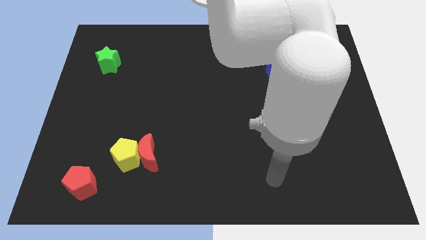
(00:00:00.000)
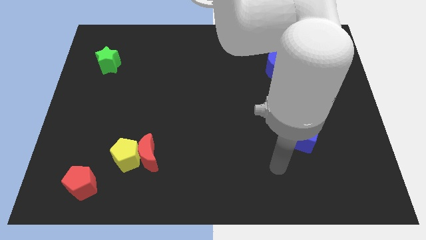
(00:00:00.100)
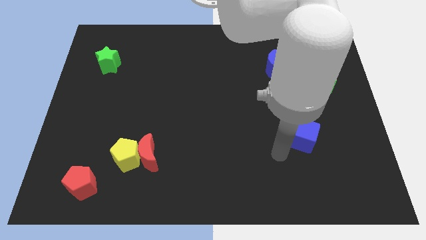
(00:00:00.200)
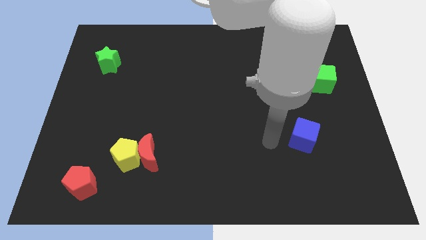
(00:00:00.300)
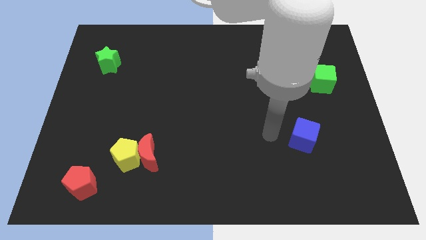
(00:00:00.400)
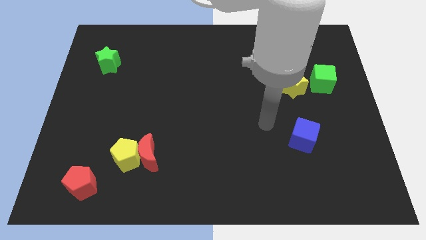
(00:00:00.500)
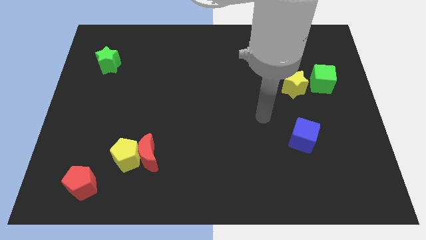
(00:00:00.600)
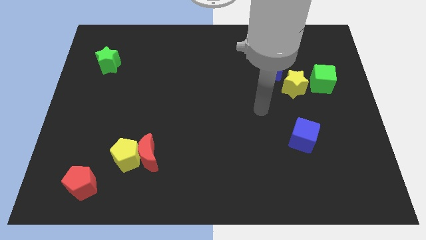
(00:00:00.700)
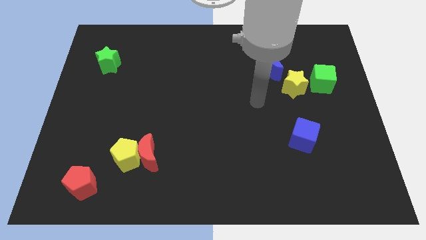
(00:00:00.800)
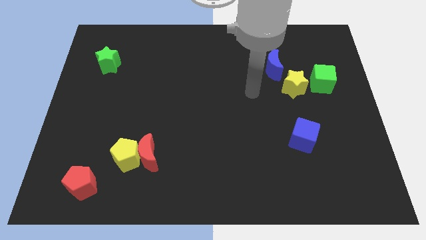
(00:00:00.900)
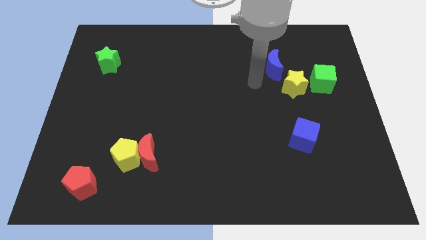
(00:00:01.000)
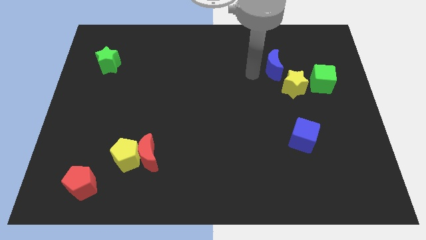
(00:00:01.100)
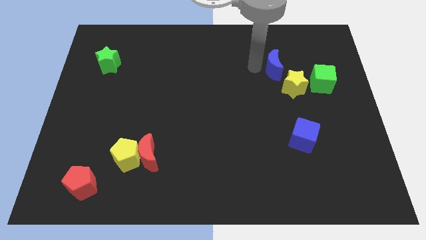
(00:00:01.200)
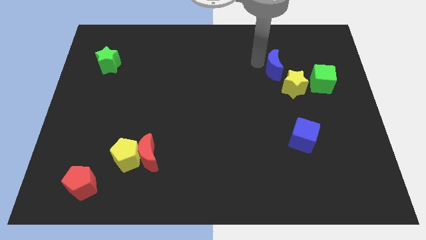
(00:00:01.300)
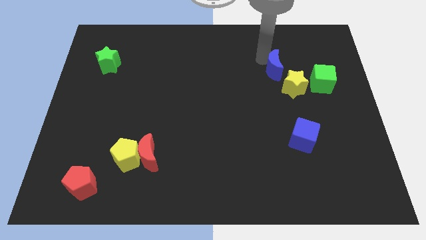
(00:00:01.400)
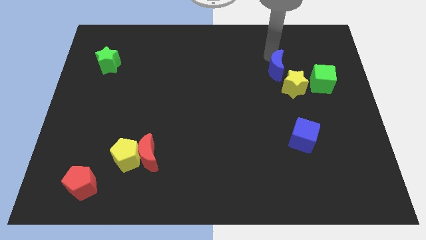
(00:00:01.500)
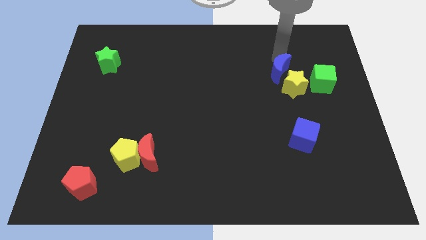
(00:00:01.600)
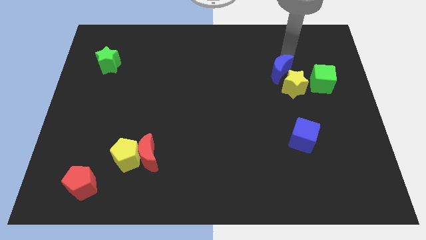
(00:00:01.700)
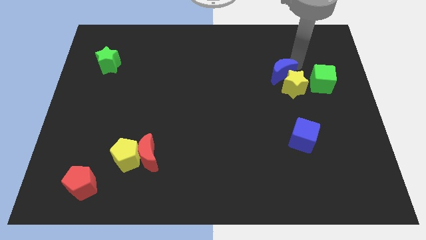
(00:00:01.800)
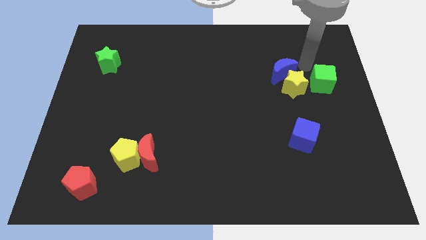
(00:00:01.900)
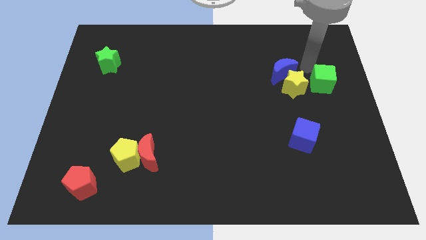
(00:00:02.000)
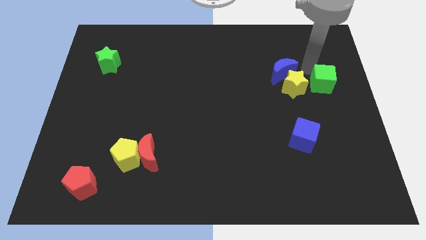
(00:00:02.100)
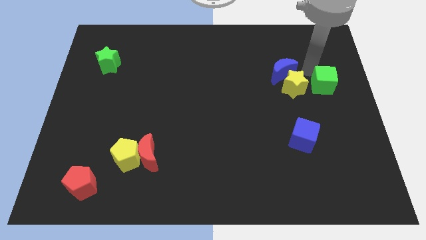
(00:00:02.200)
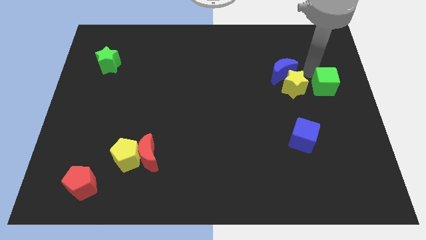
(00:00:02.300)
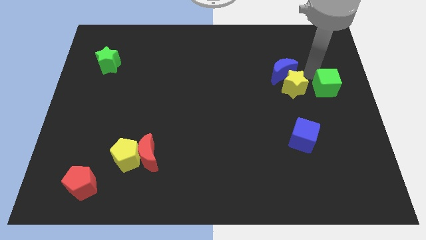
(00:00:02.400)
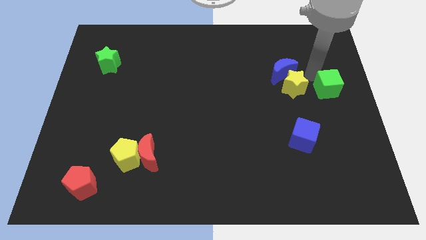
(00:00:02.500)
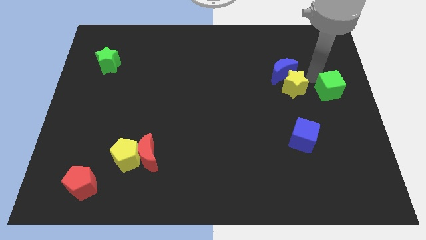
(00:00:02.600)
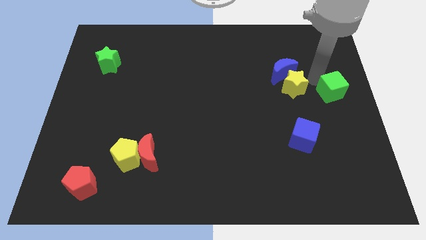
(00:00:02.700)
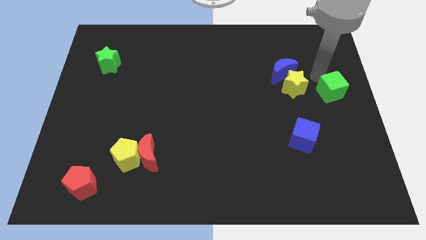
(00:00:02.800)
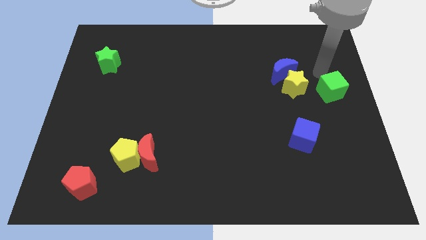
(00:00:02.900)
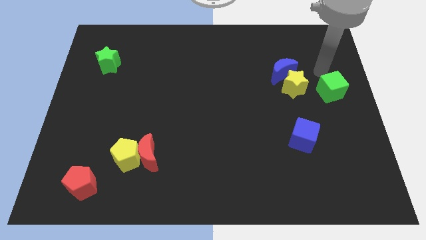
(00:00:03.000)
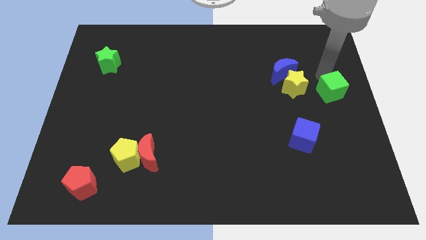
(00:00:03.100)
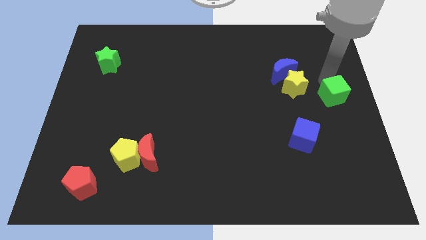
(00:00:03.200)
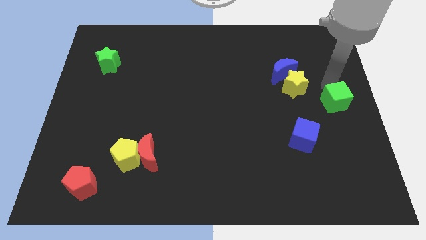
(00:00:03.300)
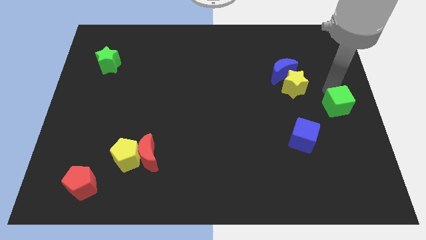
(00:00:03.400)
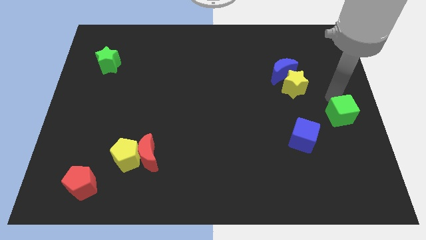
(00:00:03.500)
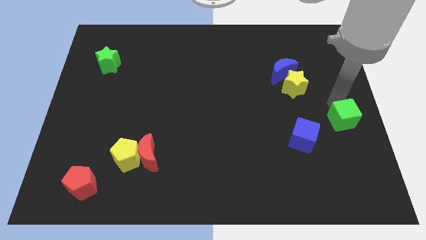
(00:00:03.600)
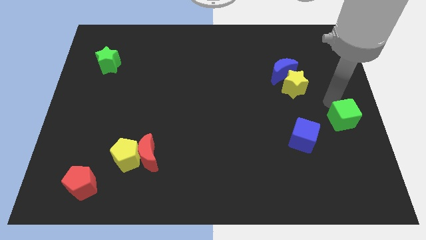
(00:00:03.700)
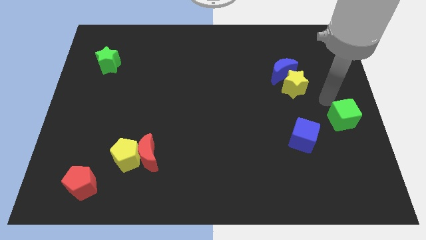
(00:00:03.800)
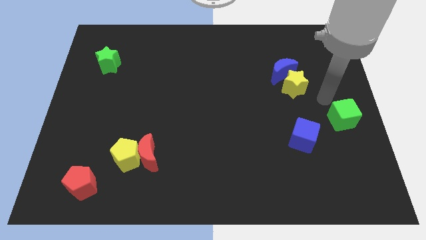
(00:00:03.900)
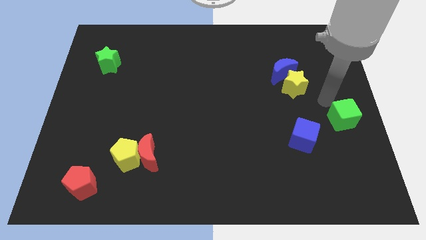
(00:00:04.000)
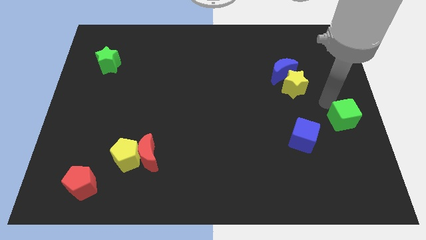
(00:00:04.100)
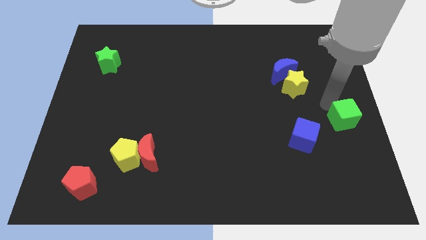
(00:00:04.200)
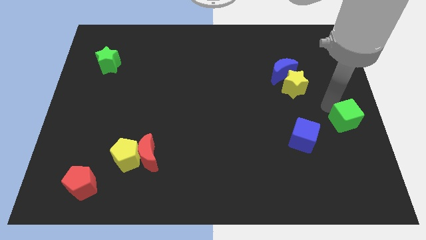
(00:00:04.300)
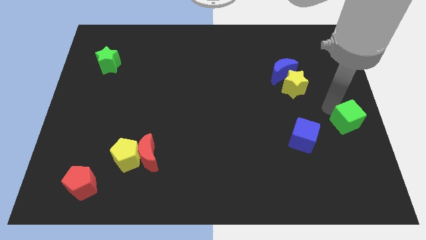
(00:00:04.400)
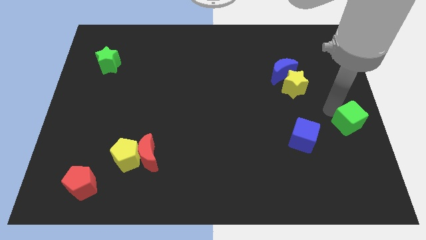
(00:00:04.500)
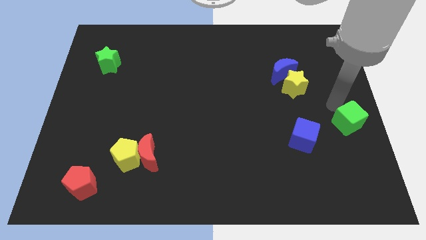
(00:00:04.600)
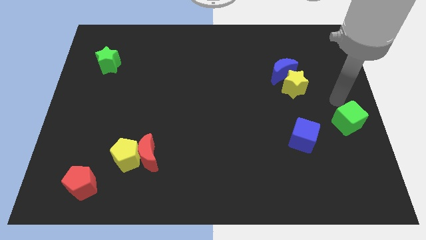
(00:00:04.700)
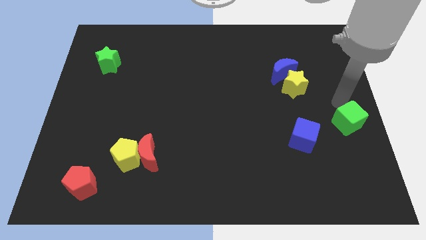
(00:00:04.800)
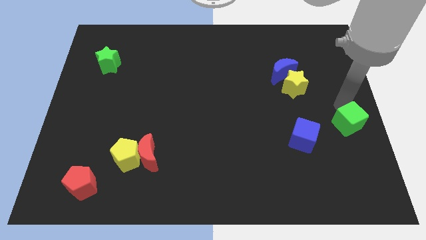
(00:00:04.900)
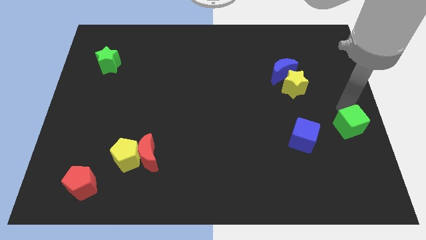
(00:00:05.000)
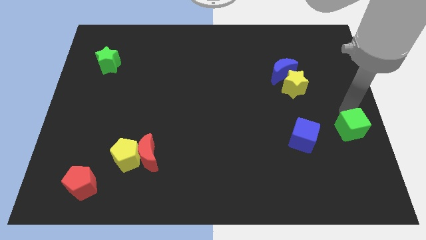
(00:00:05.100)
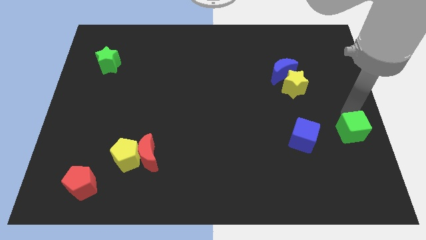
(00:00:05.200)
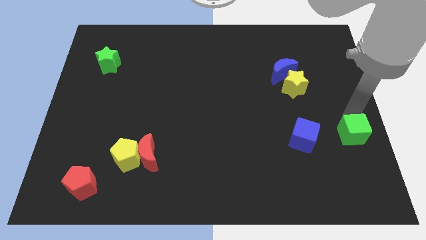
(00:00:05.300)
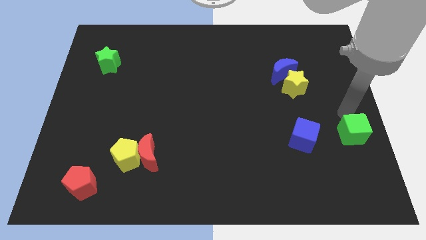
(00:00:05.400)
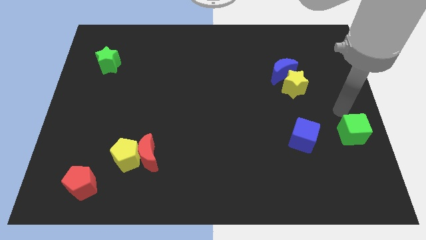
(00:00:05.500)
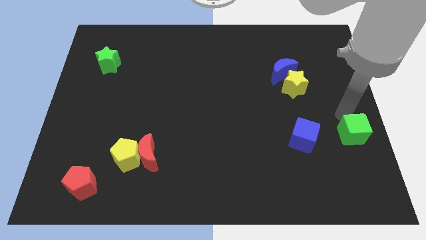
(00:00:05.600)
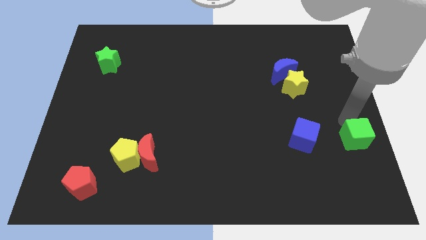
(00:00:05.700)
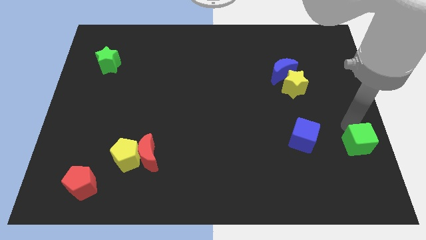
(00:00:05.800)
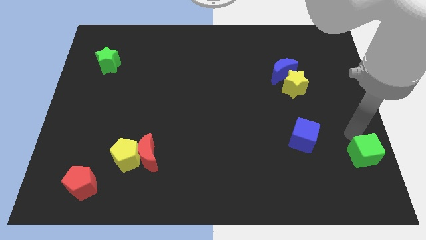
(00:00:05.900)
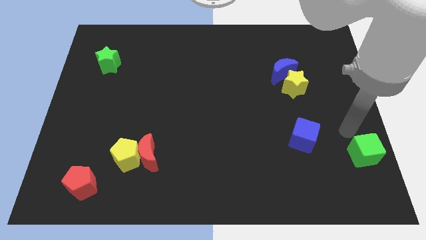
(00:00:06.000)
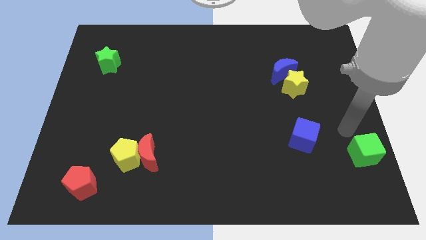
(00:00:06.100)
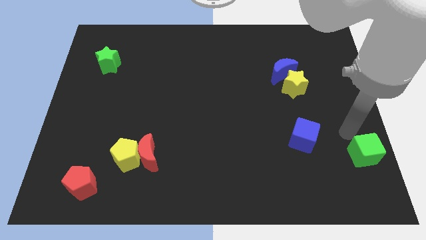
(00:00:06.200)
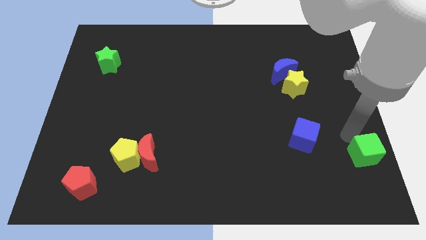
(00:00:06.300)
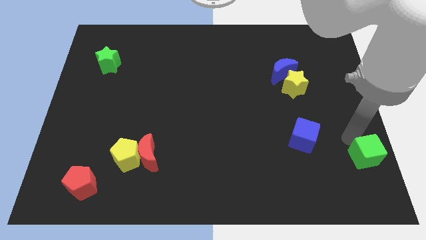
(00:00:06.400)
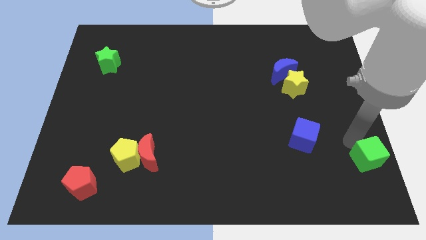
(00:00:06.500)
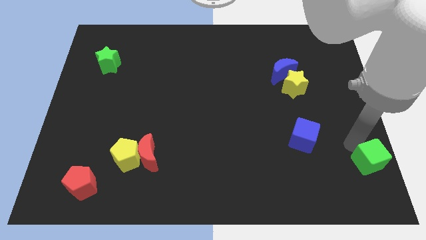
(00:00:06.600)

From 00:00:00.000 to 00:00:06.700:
slide the green cube to the bottom right
